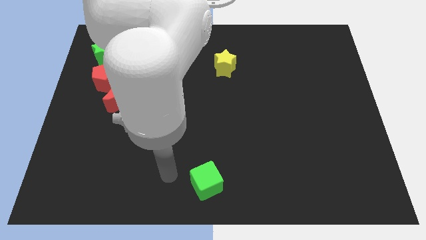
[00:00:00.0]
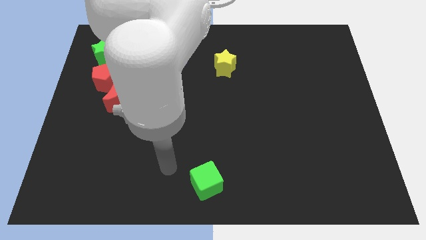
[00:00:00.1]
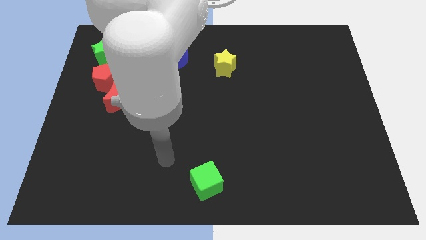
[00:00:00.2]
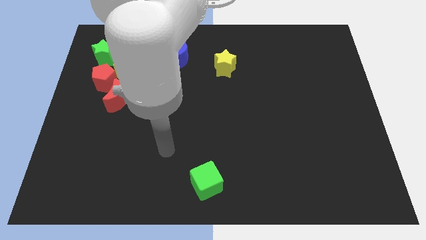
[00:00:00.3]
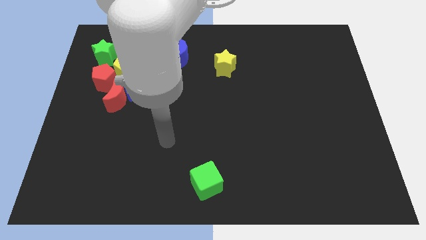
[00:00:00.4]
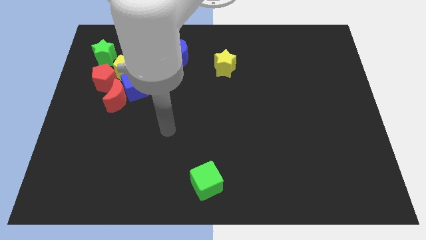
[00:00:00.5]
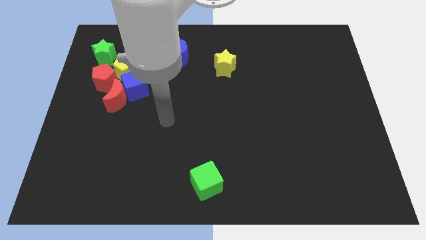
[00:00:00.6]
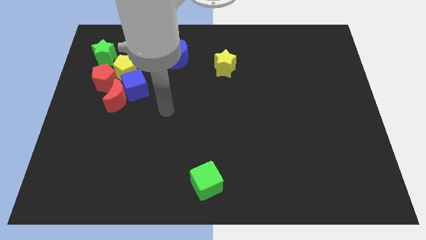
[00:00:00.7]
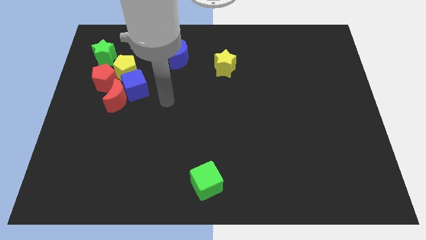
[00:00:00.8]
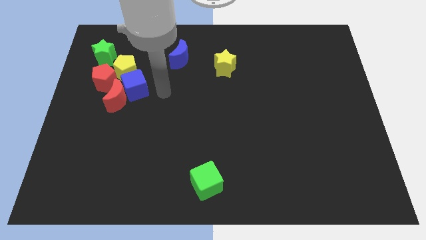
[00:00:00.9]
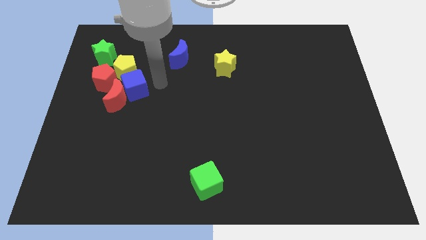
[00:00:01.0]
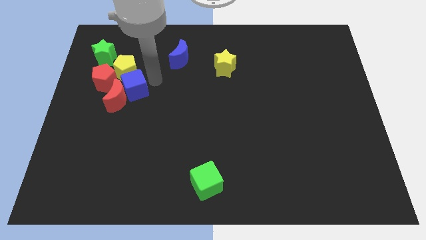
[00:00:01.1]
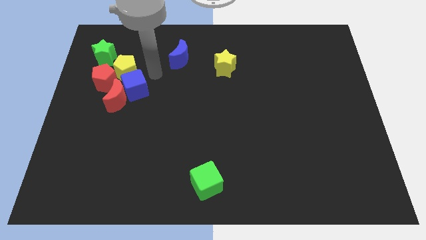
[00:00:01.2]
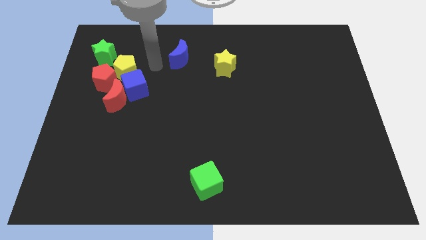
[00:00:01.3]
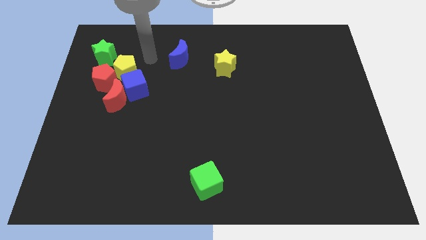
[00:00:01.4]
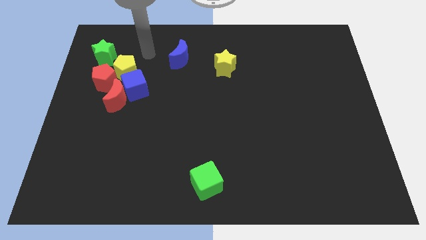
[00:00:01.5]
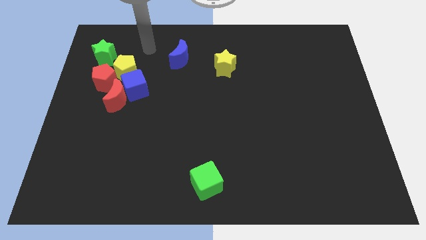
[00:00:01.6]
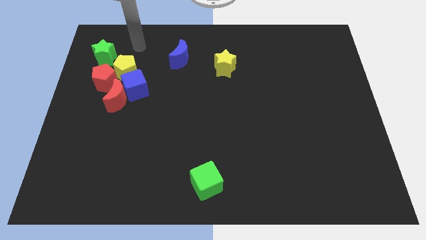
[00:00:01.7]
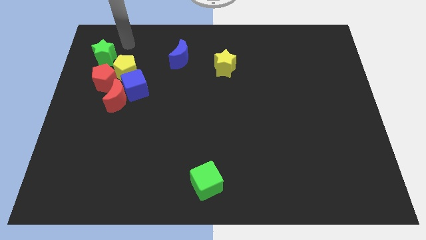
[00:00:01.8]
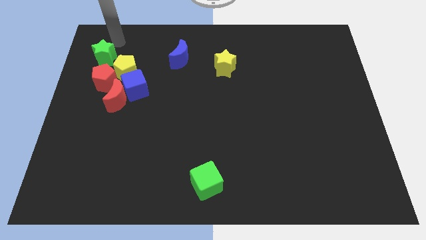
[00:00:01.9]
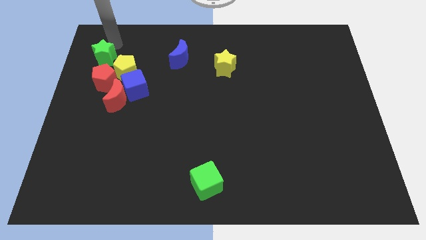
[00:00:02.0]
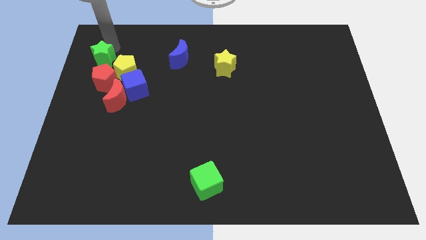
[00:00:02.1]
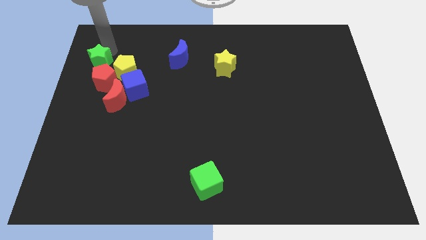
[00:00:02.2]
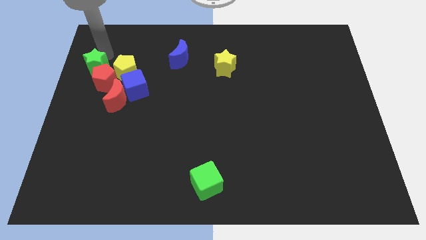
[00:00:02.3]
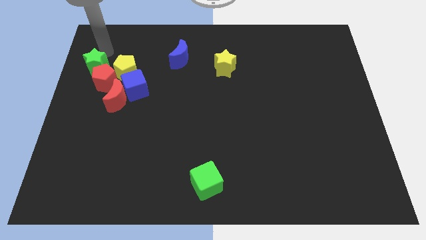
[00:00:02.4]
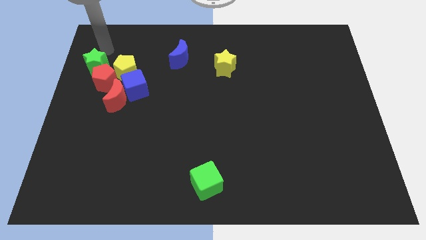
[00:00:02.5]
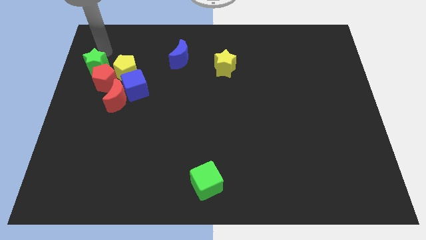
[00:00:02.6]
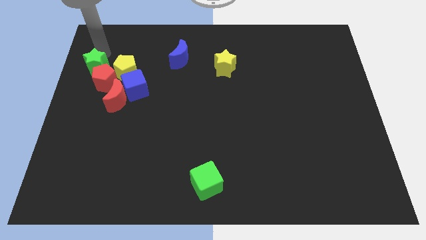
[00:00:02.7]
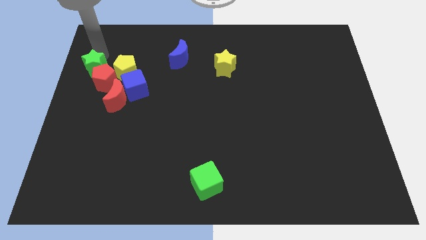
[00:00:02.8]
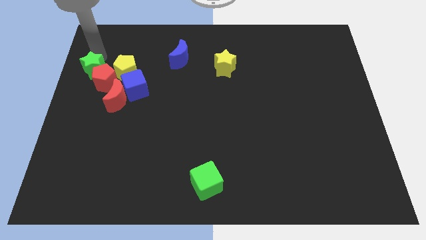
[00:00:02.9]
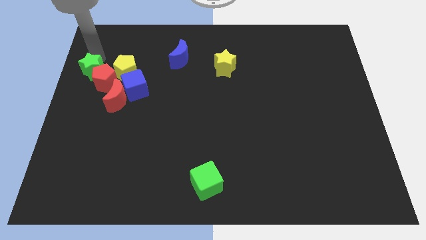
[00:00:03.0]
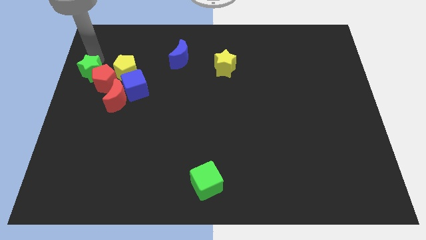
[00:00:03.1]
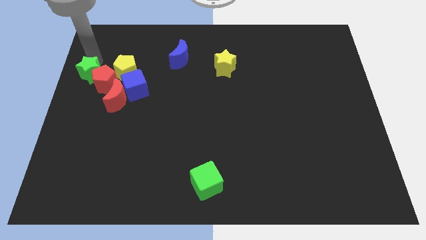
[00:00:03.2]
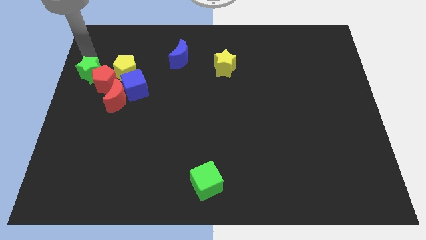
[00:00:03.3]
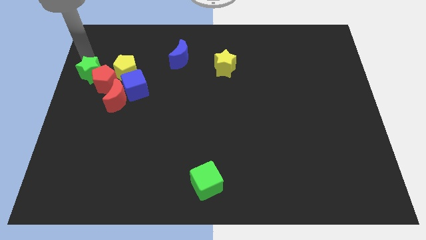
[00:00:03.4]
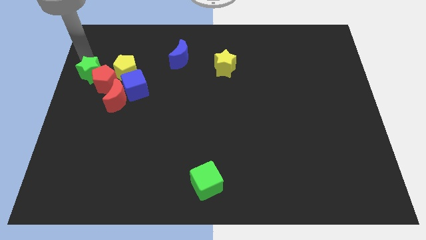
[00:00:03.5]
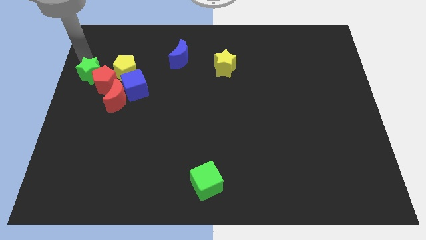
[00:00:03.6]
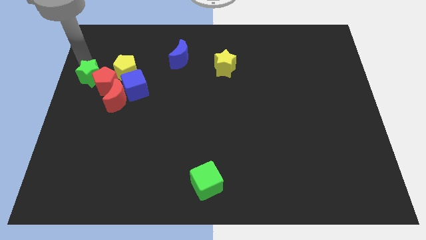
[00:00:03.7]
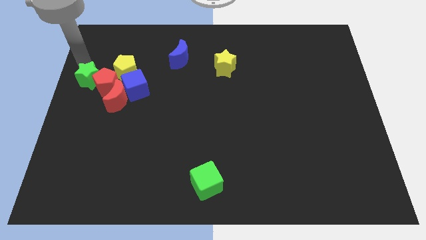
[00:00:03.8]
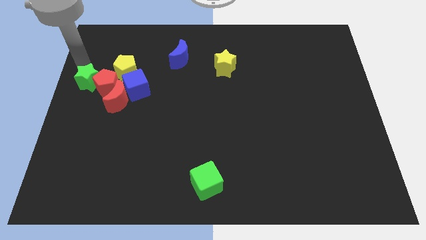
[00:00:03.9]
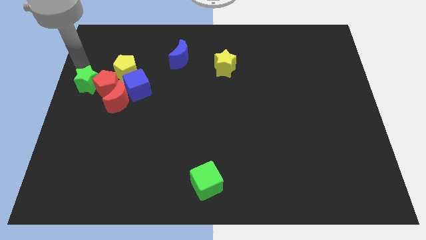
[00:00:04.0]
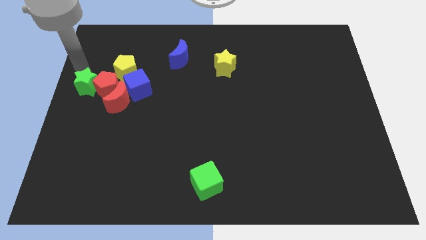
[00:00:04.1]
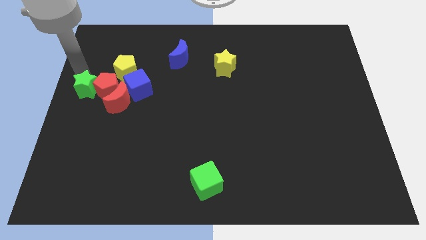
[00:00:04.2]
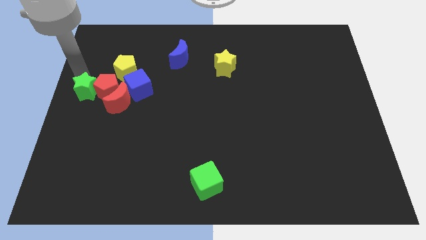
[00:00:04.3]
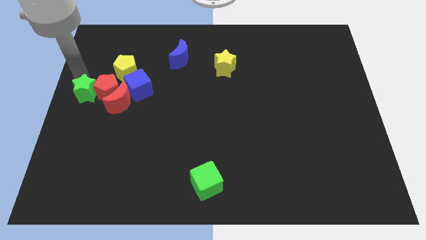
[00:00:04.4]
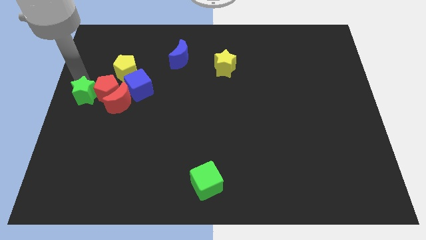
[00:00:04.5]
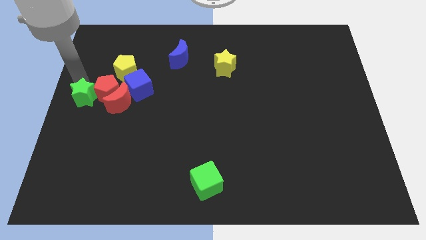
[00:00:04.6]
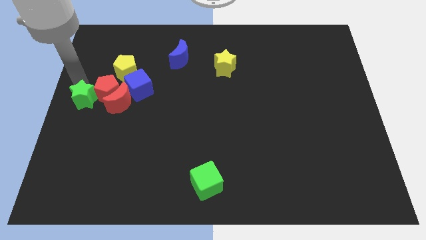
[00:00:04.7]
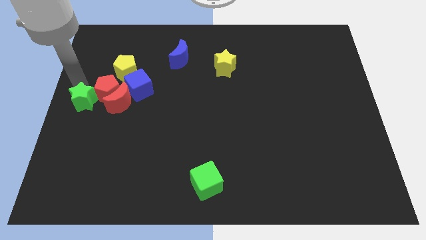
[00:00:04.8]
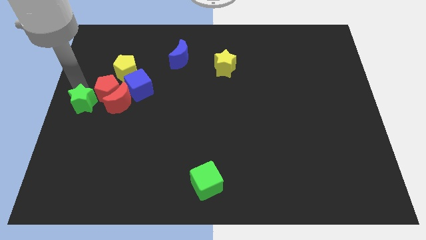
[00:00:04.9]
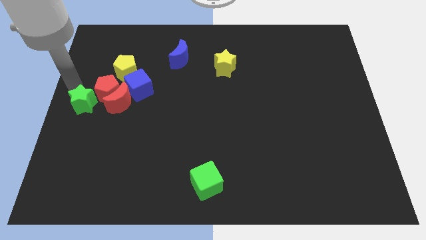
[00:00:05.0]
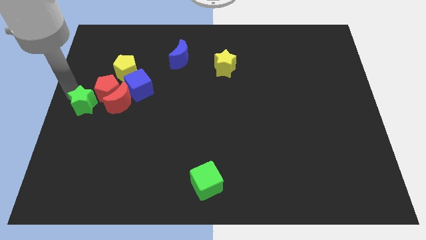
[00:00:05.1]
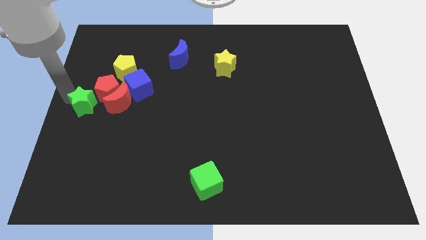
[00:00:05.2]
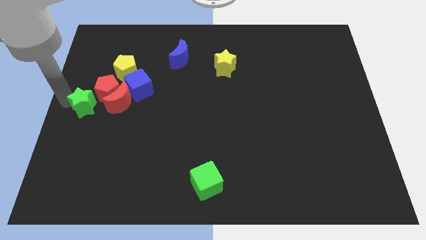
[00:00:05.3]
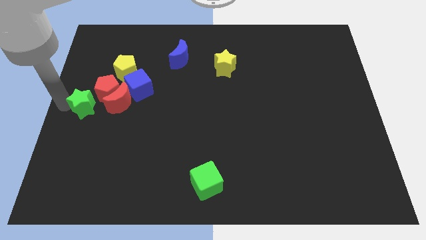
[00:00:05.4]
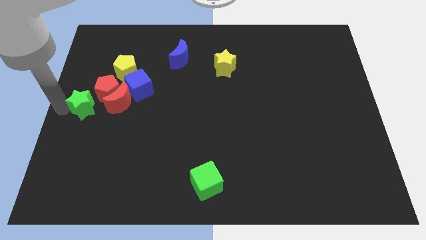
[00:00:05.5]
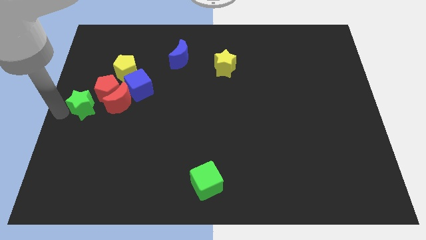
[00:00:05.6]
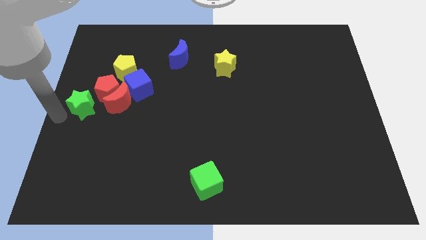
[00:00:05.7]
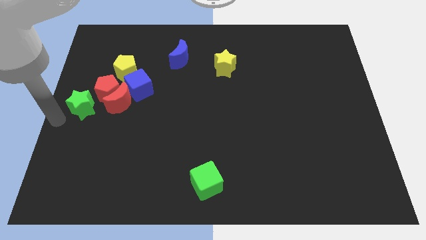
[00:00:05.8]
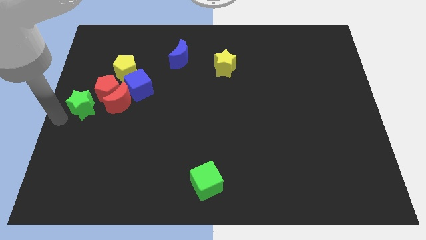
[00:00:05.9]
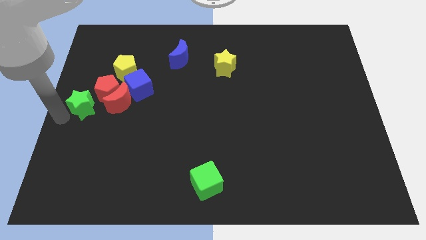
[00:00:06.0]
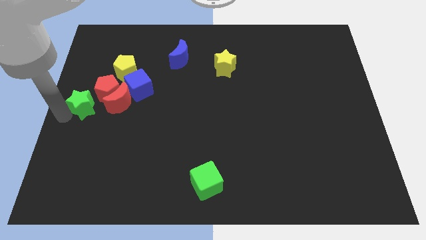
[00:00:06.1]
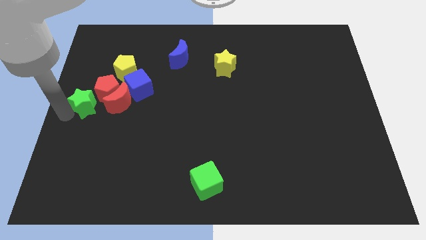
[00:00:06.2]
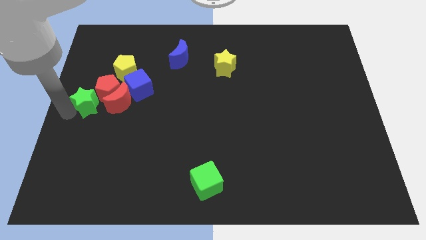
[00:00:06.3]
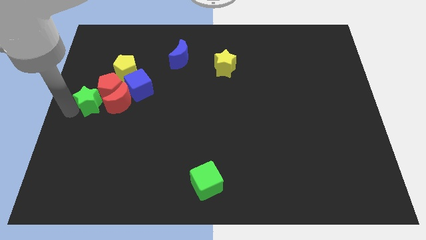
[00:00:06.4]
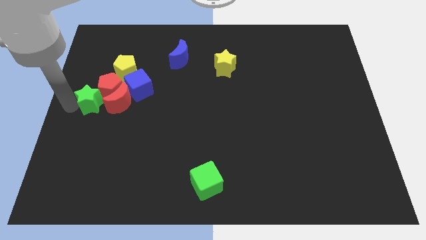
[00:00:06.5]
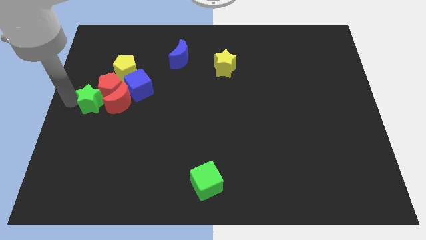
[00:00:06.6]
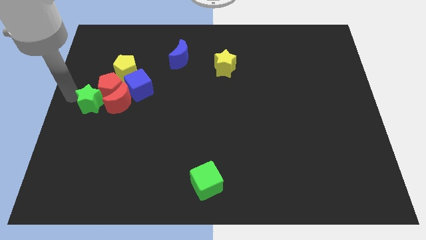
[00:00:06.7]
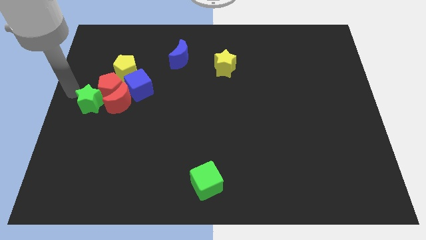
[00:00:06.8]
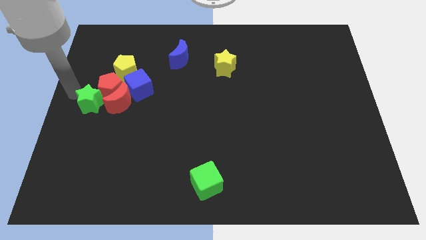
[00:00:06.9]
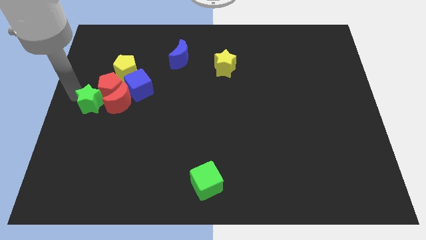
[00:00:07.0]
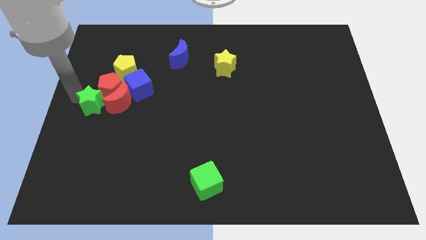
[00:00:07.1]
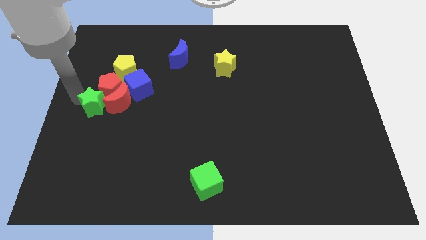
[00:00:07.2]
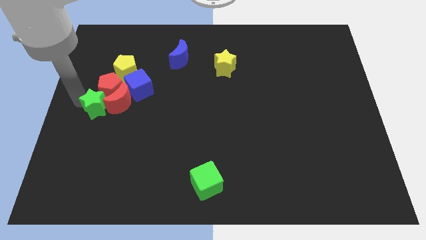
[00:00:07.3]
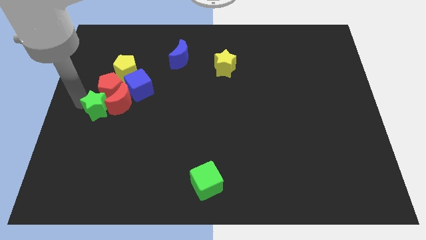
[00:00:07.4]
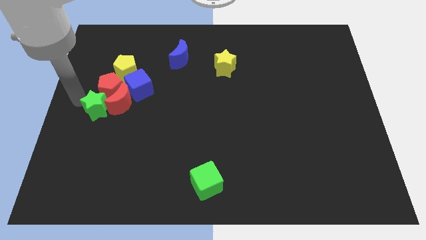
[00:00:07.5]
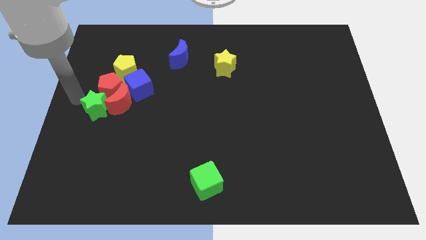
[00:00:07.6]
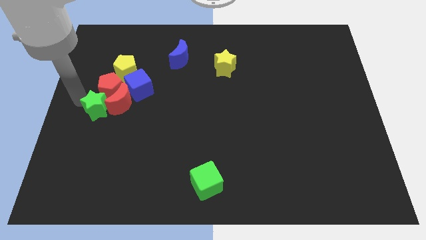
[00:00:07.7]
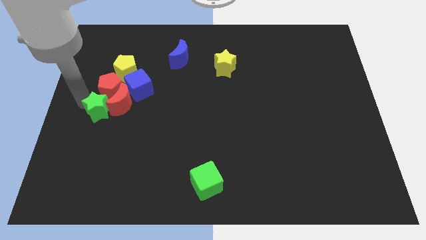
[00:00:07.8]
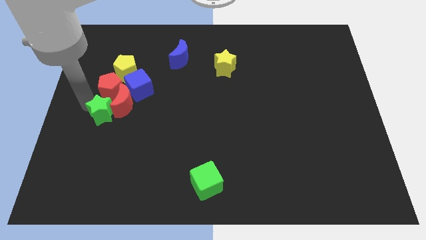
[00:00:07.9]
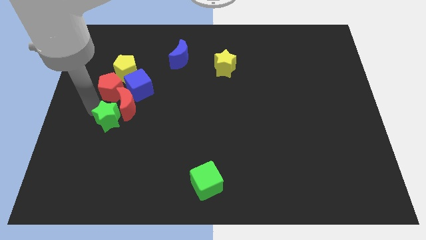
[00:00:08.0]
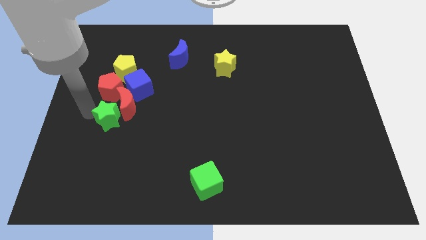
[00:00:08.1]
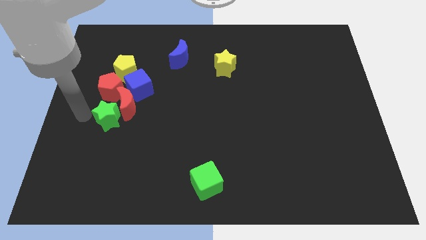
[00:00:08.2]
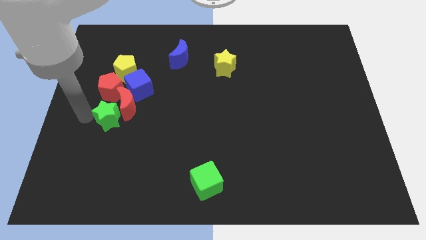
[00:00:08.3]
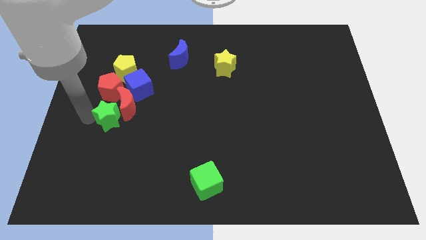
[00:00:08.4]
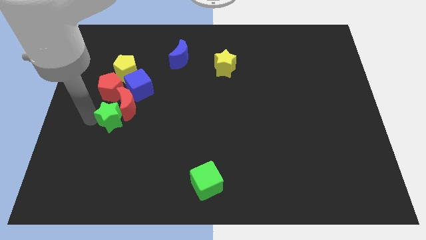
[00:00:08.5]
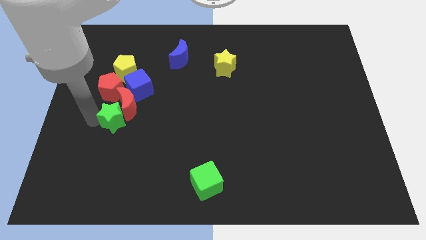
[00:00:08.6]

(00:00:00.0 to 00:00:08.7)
push the green star to the bottom of the blue cube
